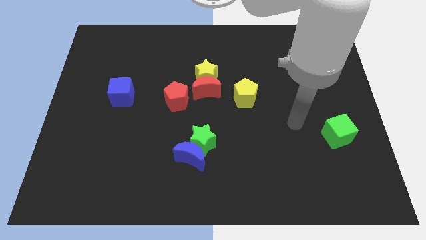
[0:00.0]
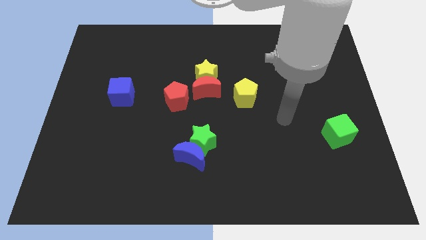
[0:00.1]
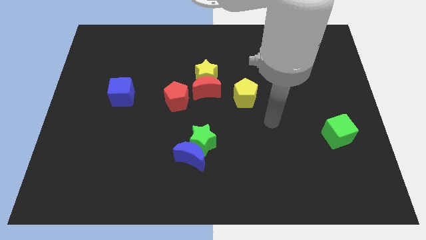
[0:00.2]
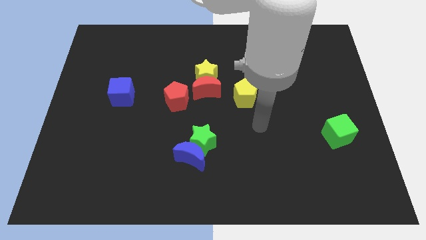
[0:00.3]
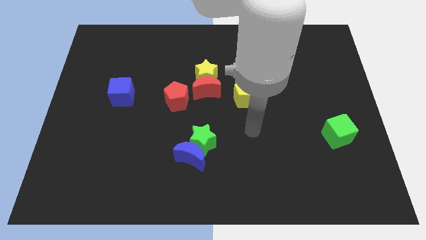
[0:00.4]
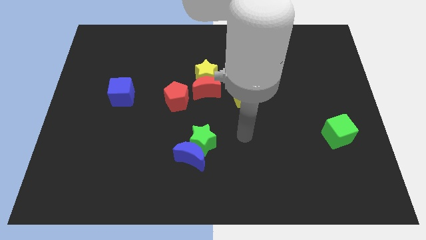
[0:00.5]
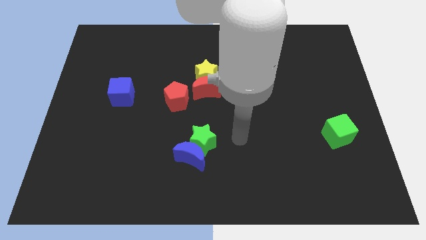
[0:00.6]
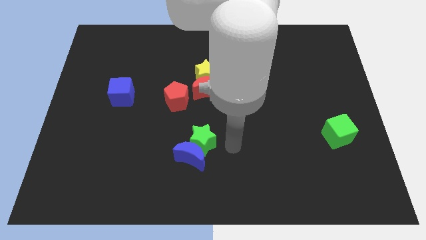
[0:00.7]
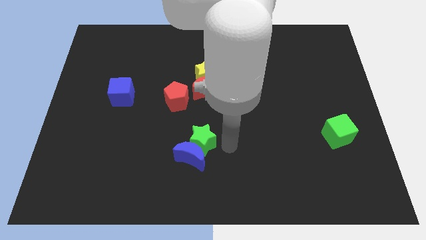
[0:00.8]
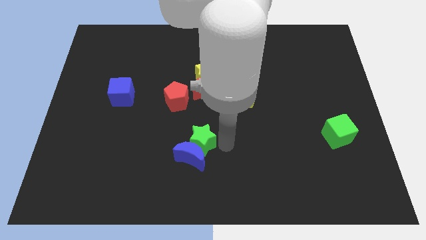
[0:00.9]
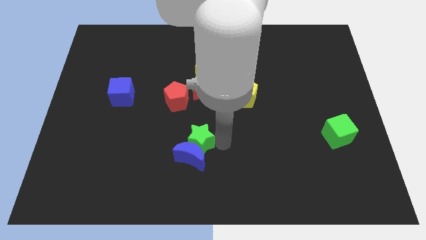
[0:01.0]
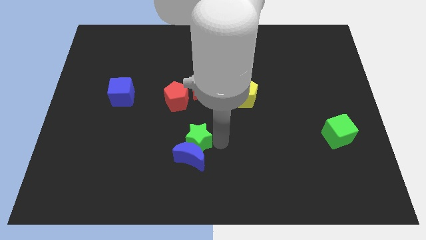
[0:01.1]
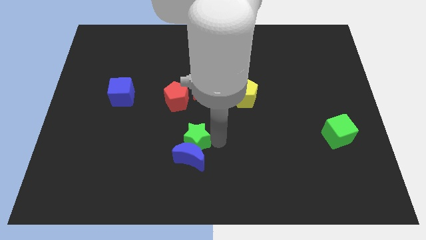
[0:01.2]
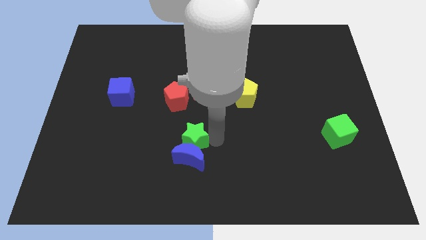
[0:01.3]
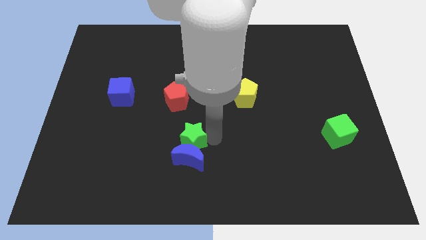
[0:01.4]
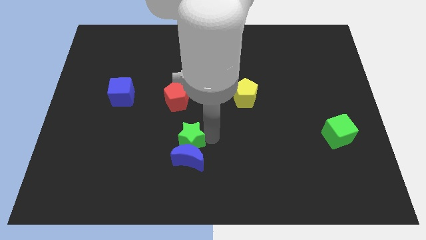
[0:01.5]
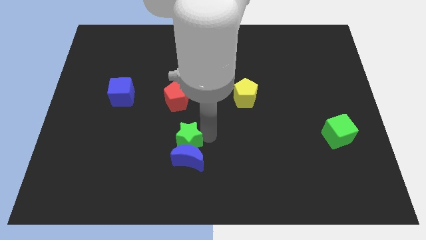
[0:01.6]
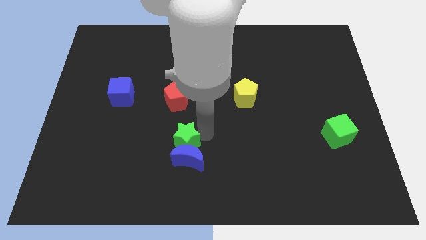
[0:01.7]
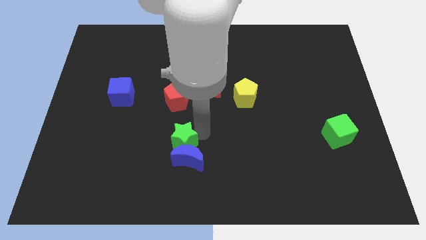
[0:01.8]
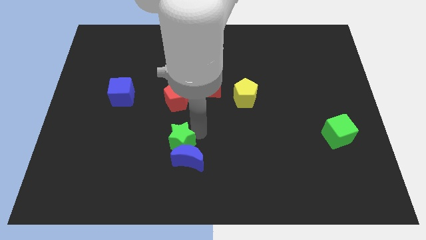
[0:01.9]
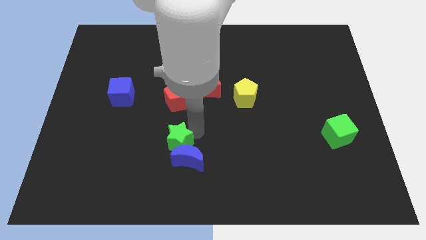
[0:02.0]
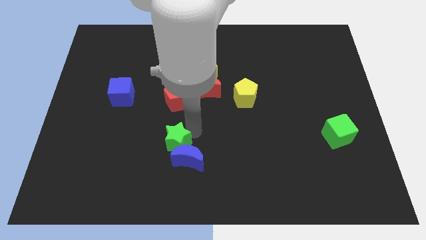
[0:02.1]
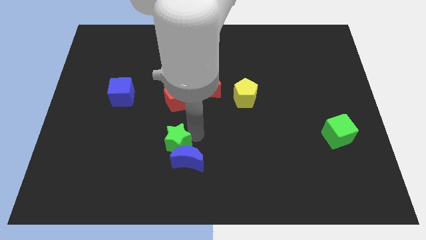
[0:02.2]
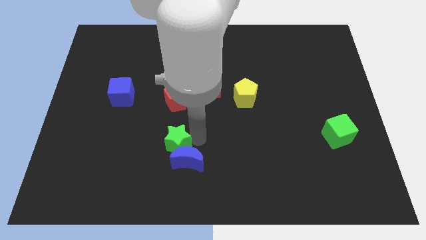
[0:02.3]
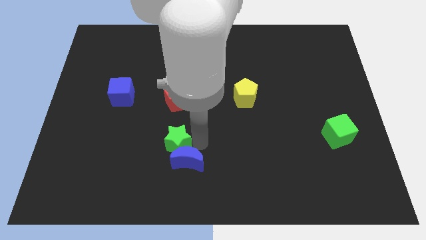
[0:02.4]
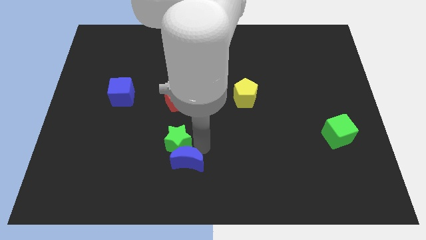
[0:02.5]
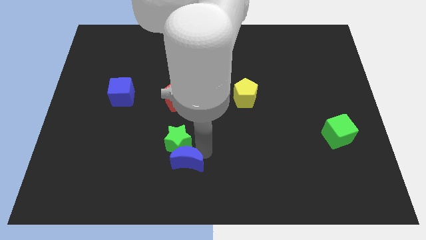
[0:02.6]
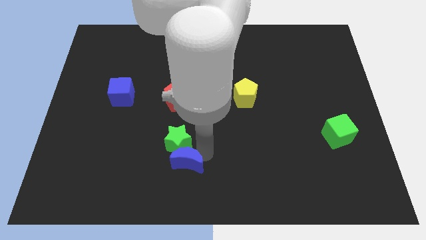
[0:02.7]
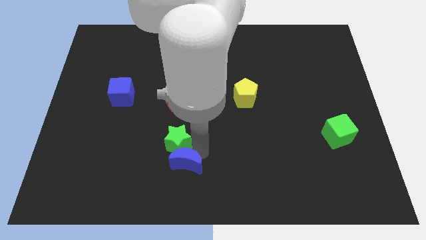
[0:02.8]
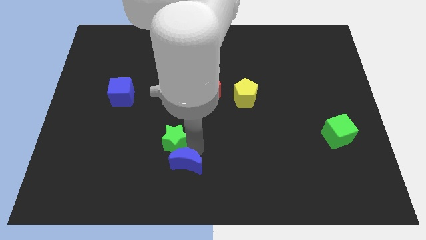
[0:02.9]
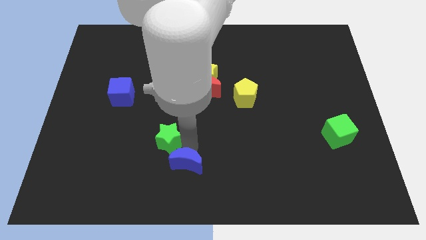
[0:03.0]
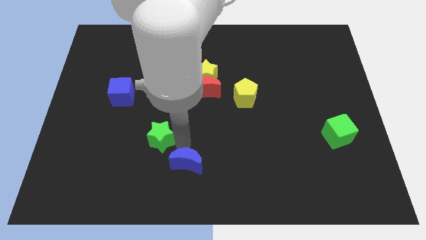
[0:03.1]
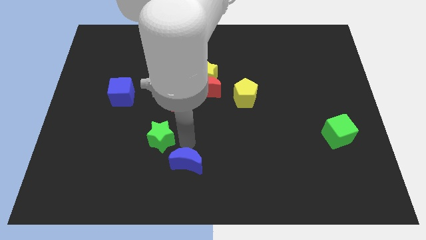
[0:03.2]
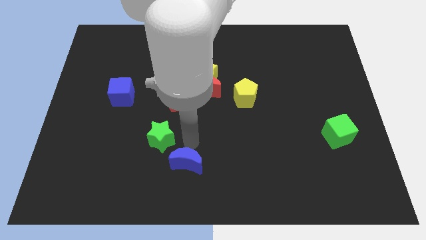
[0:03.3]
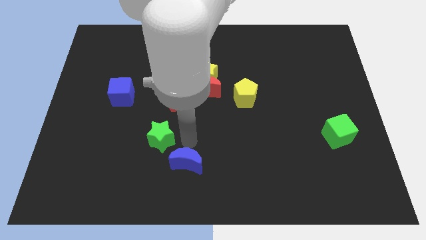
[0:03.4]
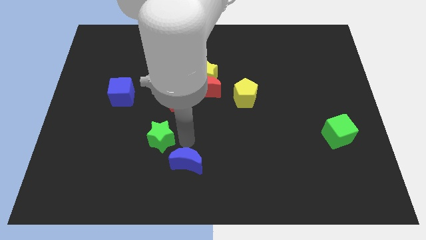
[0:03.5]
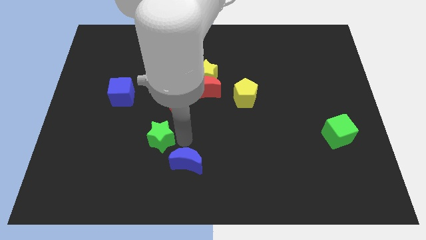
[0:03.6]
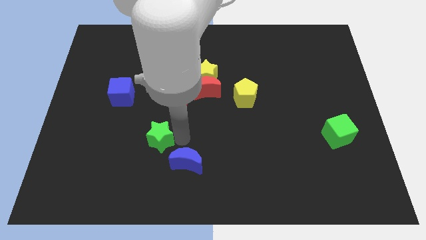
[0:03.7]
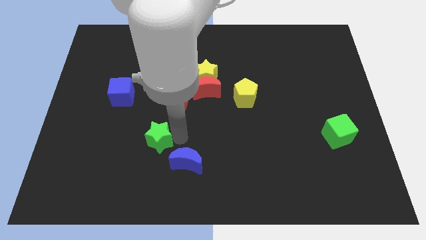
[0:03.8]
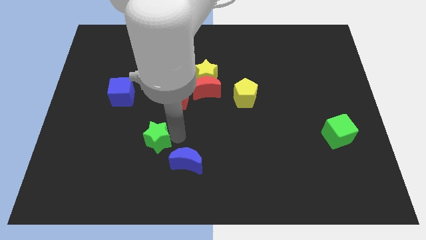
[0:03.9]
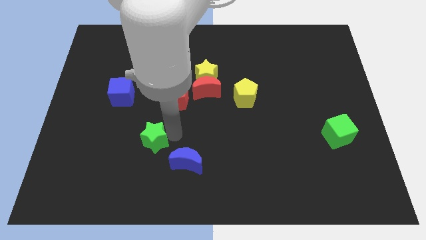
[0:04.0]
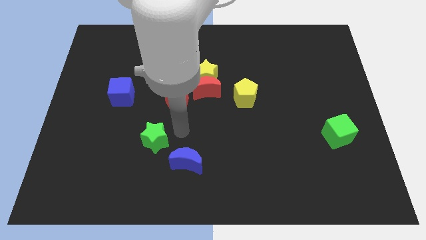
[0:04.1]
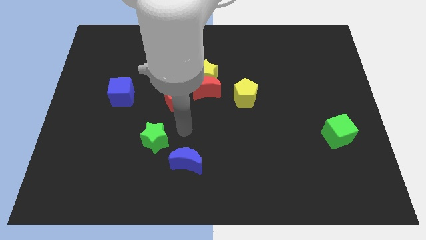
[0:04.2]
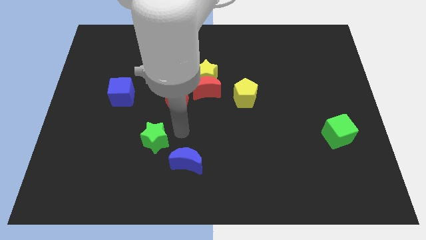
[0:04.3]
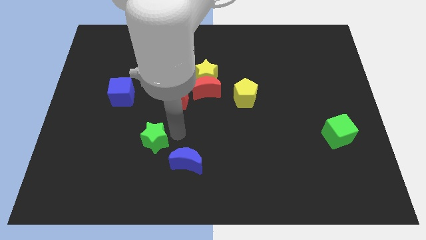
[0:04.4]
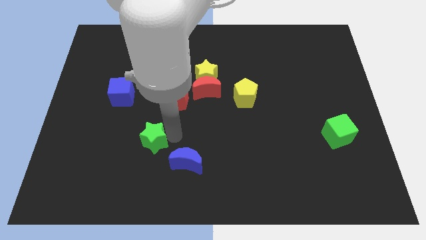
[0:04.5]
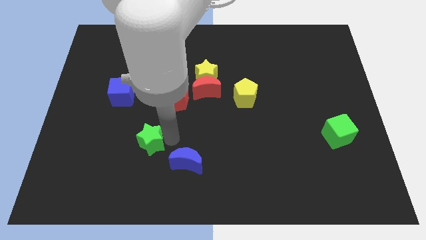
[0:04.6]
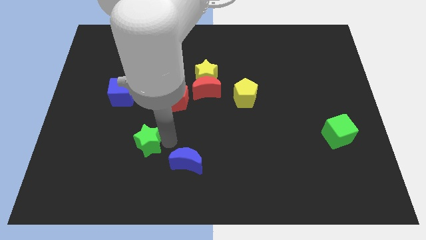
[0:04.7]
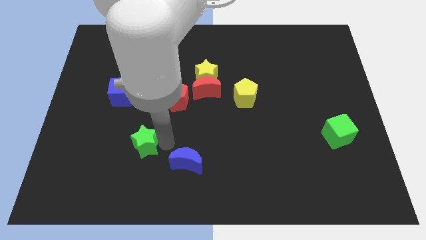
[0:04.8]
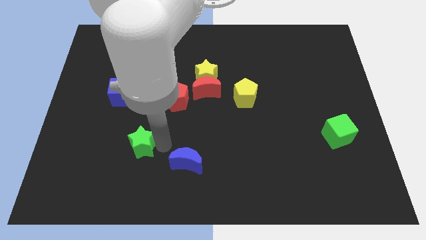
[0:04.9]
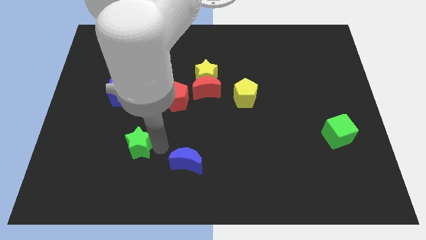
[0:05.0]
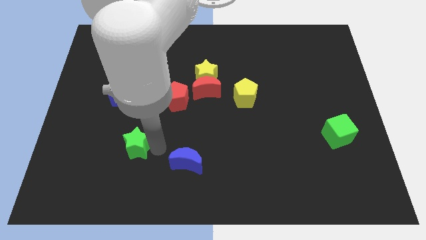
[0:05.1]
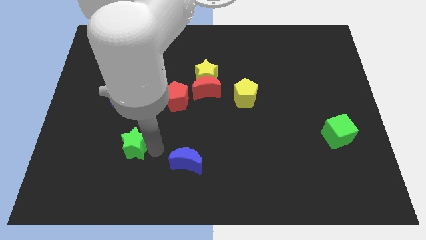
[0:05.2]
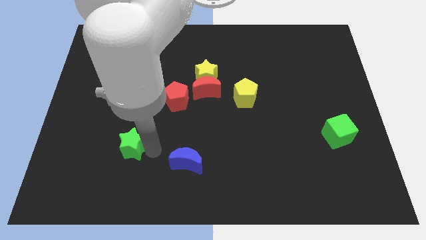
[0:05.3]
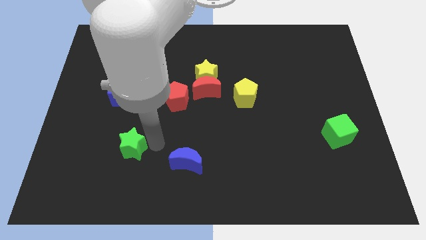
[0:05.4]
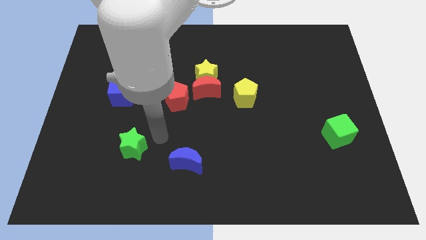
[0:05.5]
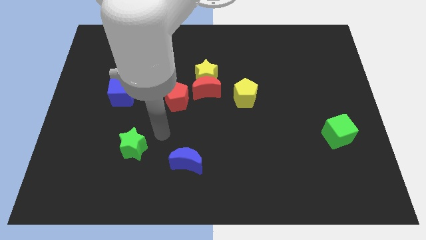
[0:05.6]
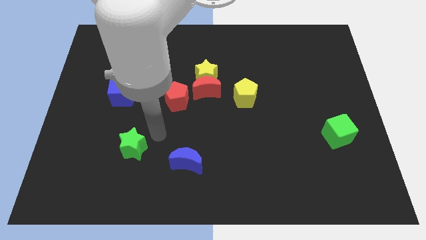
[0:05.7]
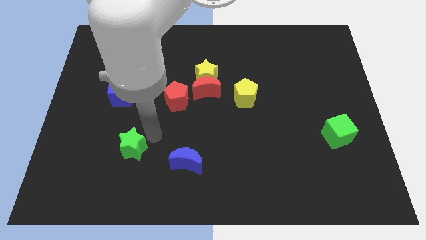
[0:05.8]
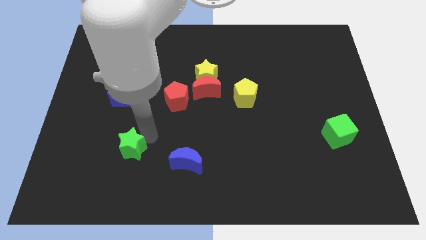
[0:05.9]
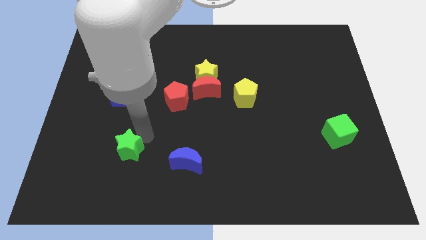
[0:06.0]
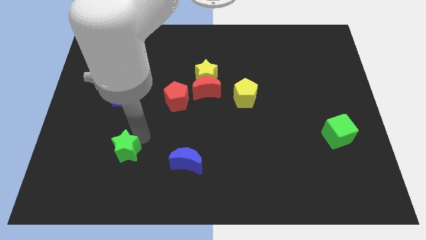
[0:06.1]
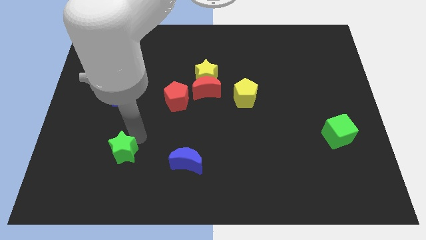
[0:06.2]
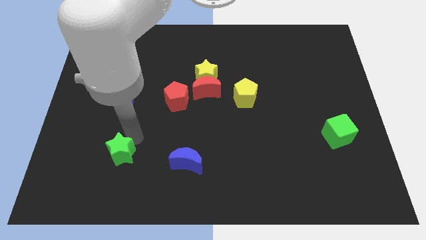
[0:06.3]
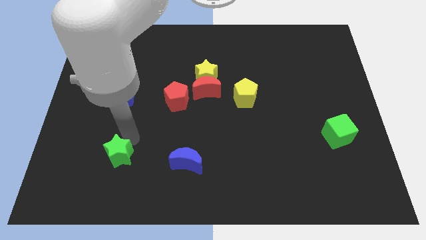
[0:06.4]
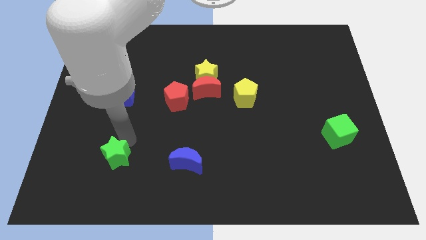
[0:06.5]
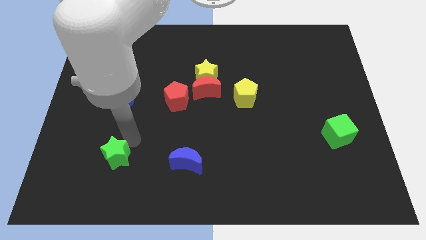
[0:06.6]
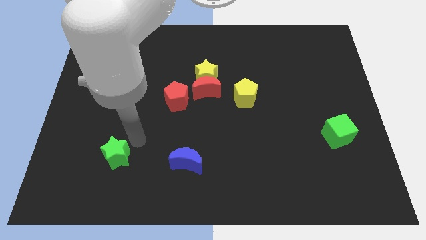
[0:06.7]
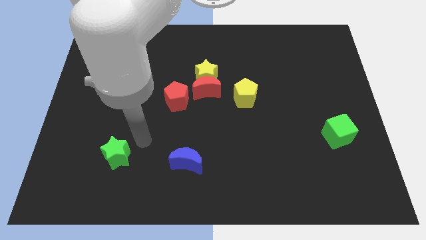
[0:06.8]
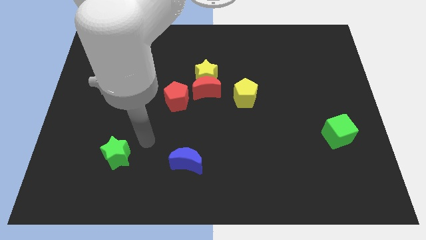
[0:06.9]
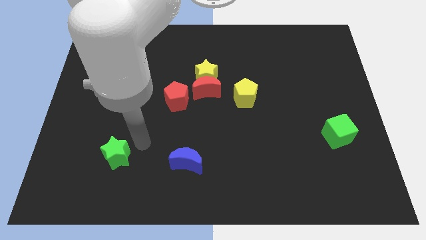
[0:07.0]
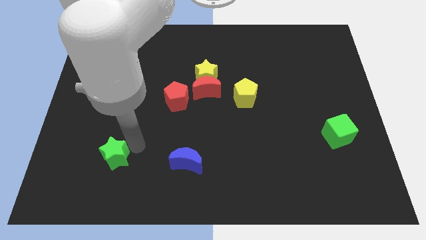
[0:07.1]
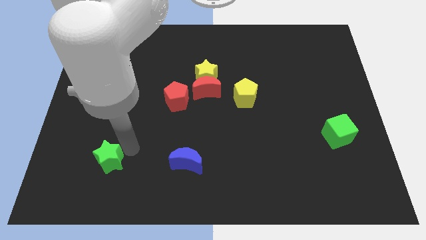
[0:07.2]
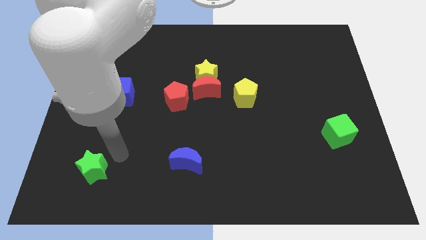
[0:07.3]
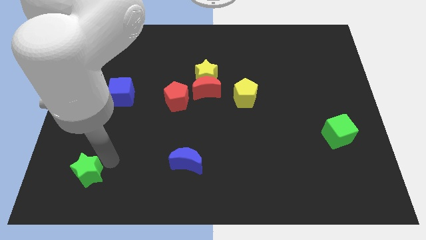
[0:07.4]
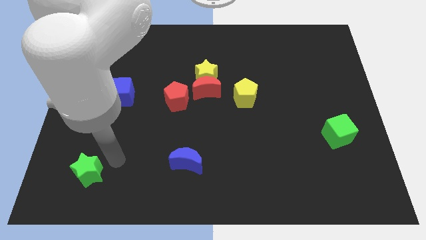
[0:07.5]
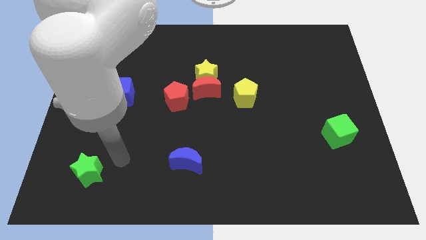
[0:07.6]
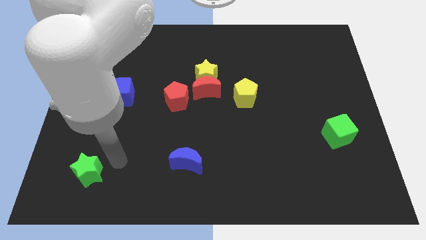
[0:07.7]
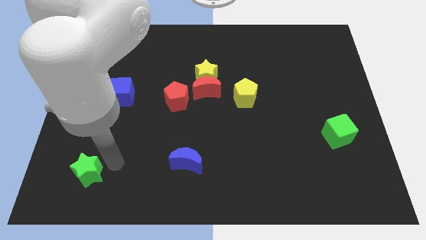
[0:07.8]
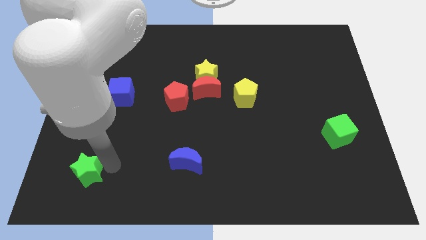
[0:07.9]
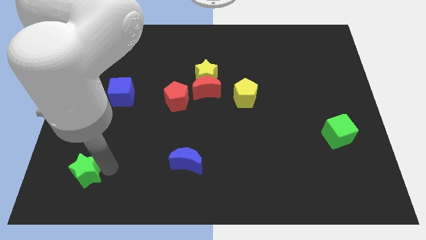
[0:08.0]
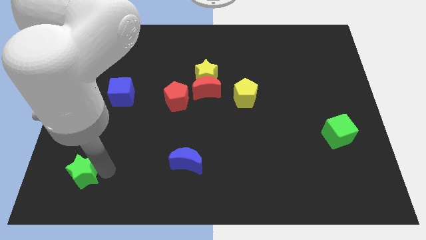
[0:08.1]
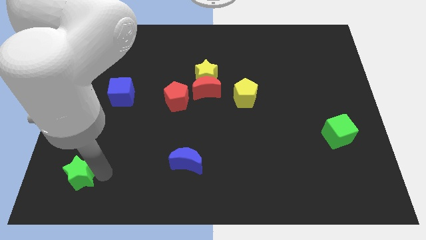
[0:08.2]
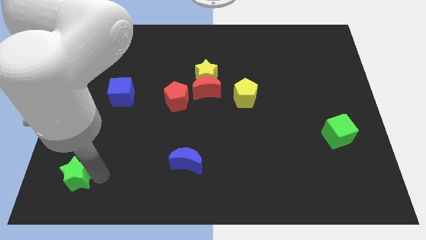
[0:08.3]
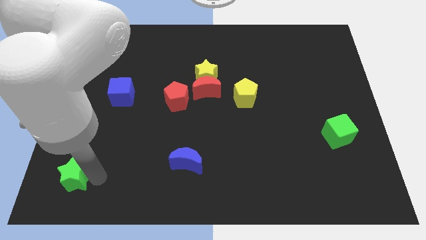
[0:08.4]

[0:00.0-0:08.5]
slide the green star to the bottom left of the board
